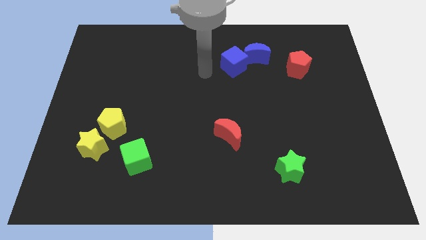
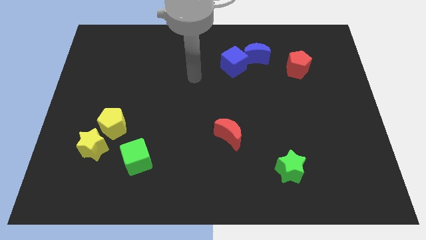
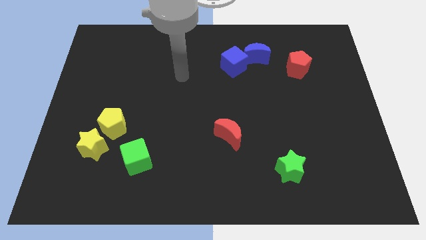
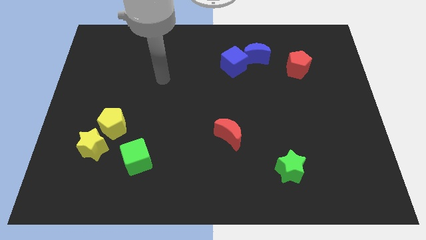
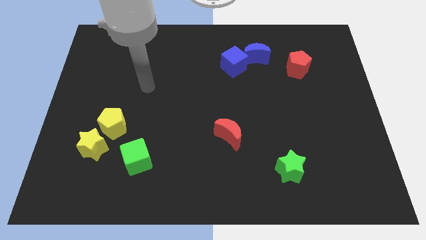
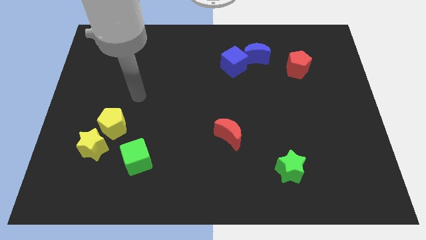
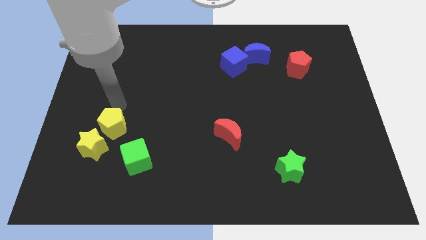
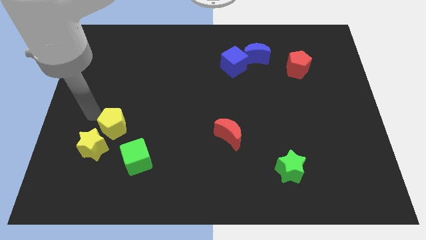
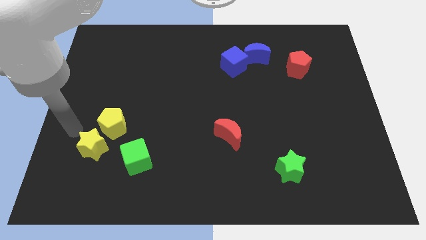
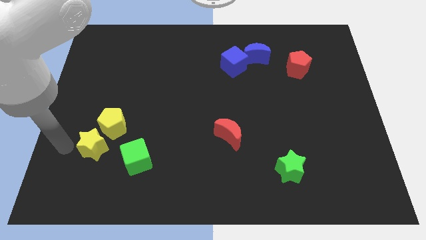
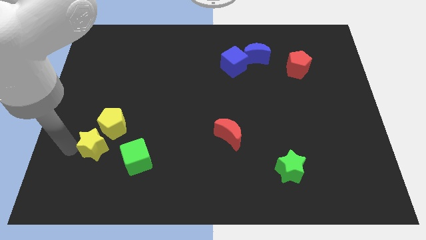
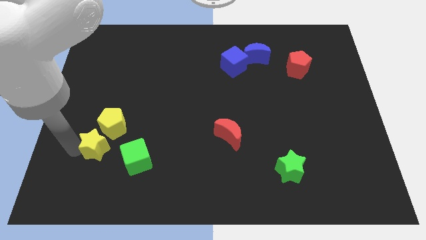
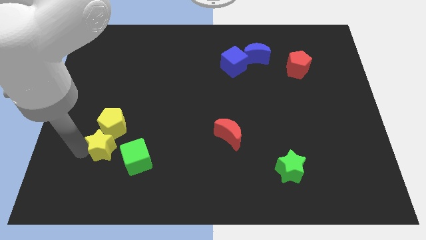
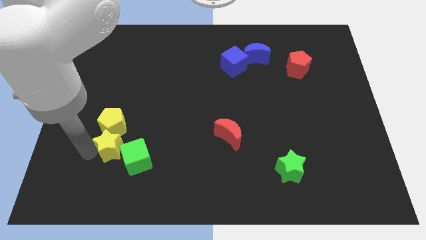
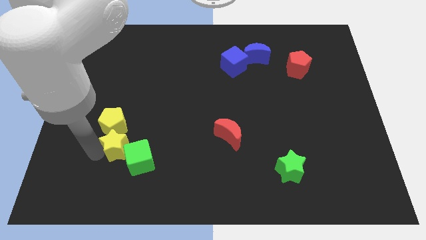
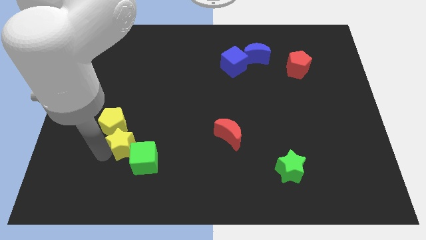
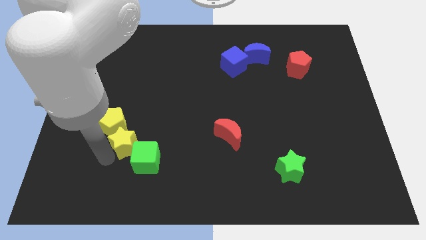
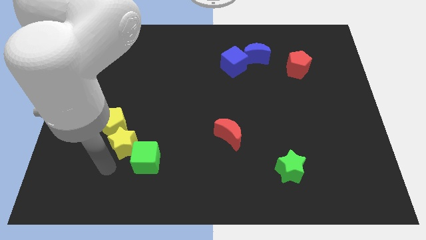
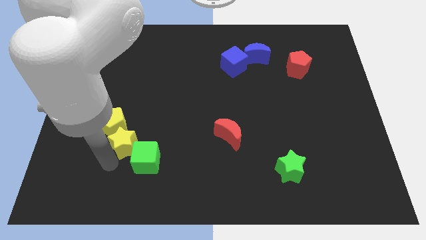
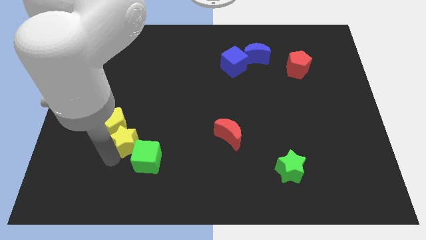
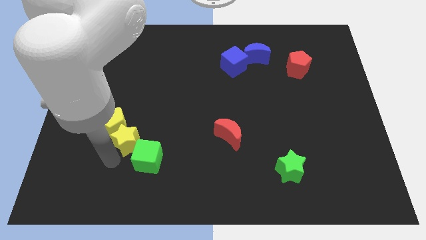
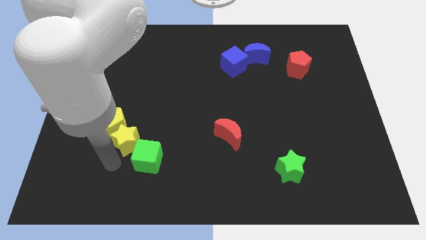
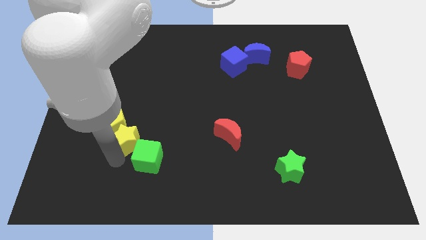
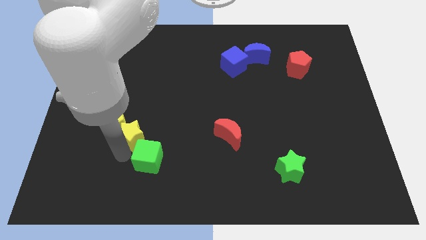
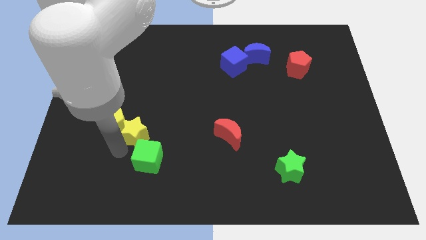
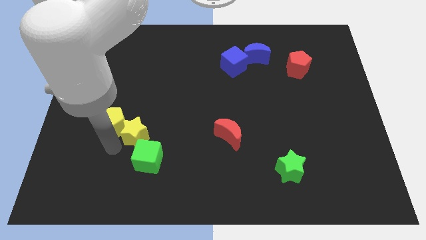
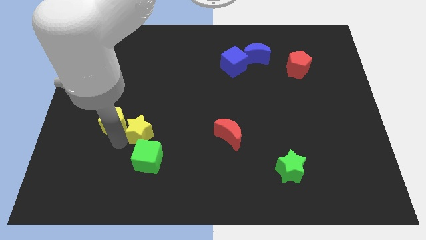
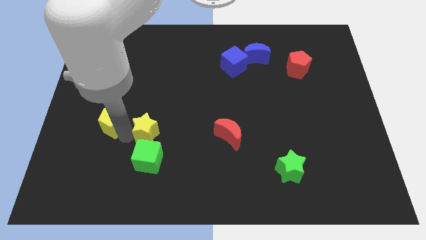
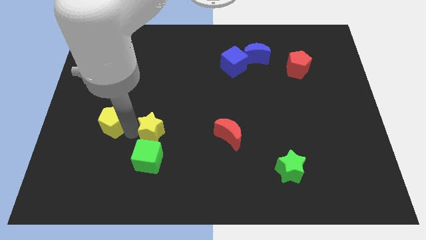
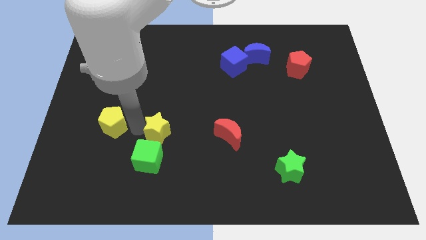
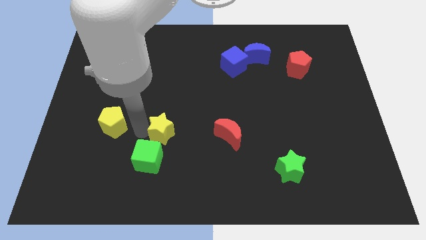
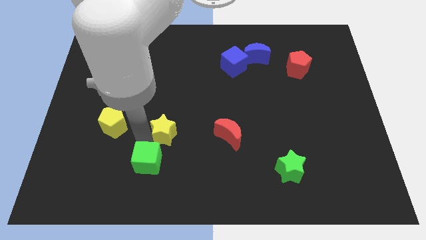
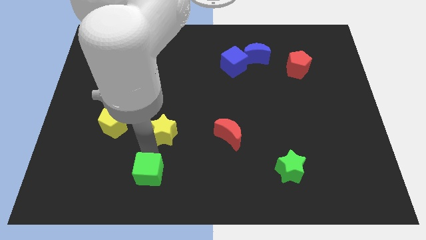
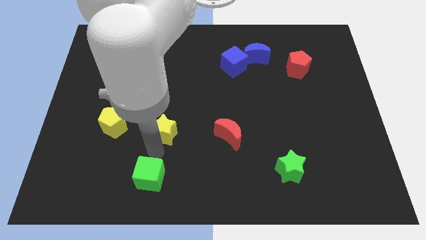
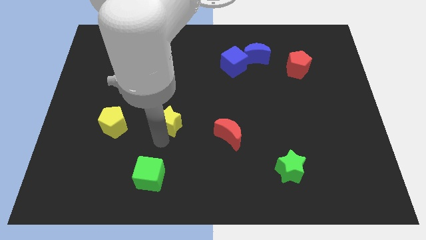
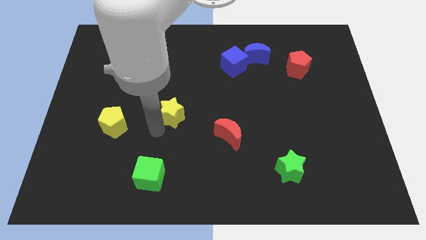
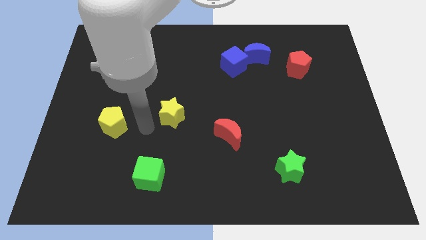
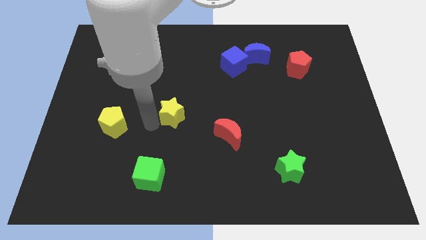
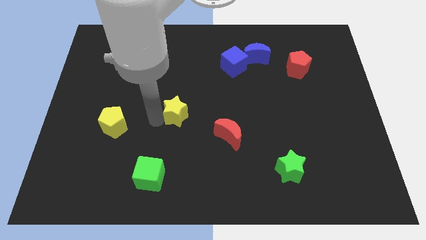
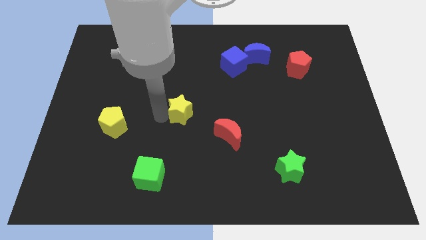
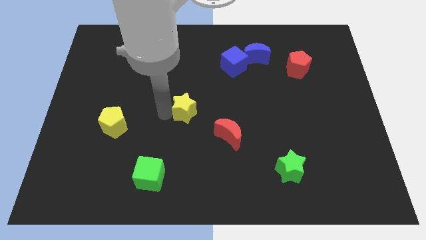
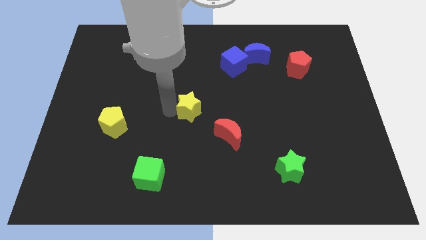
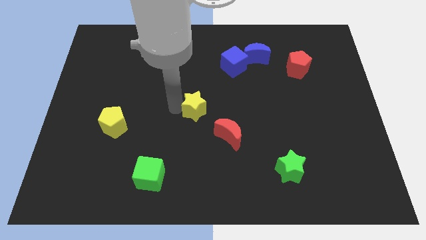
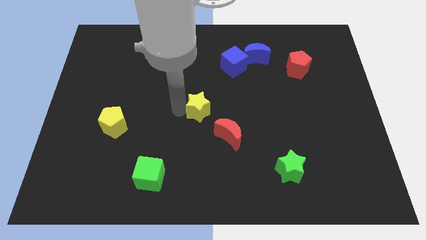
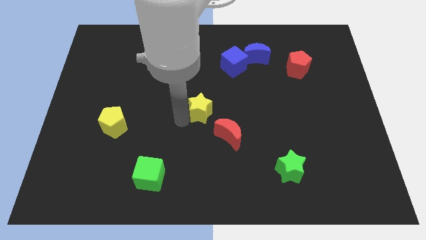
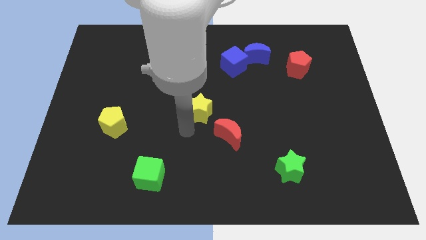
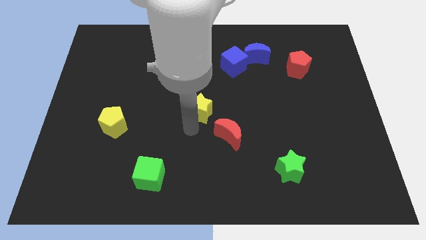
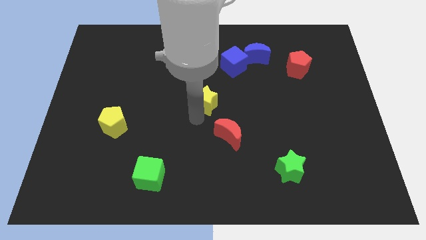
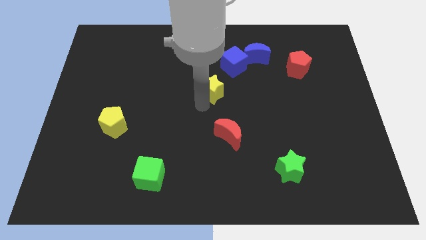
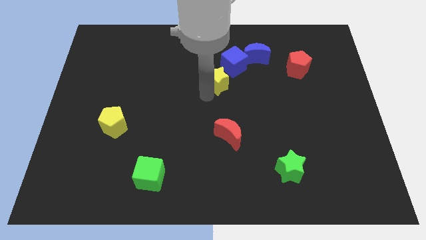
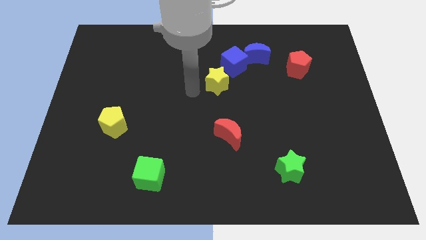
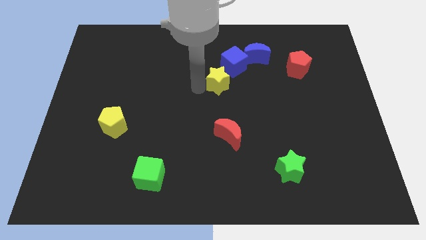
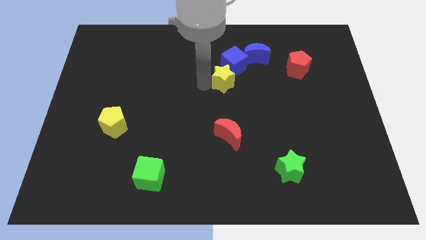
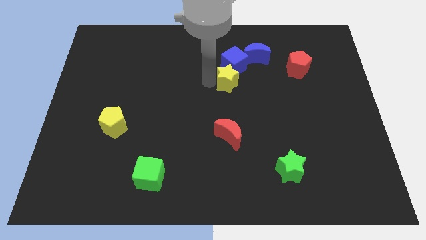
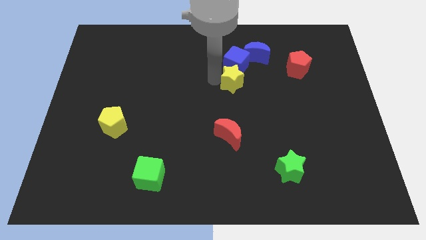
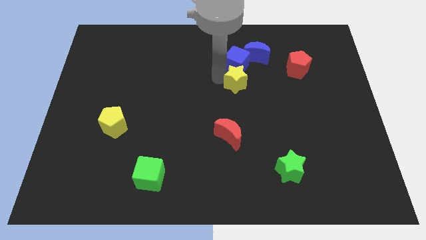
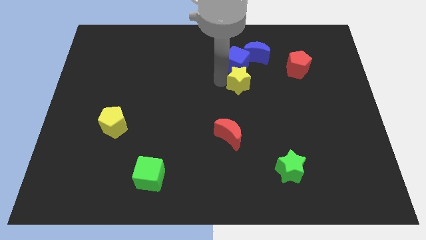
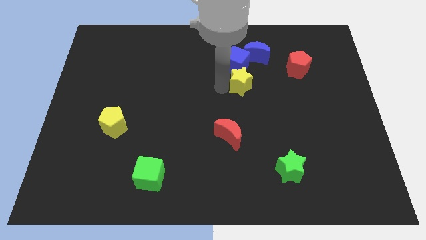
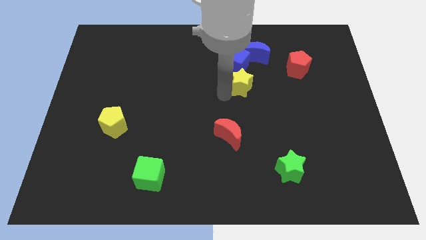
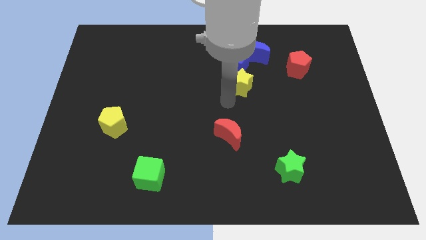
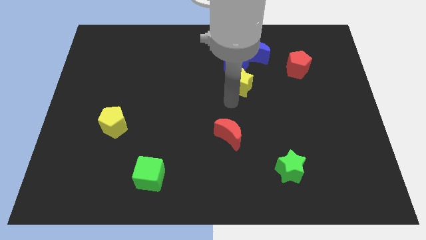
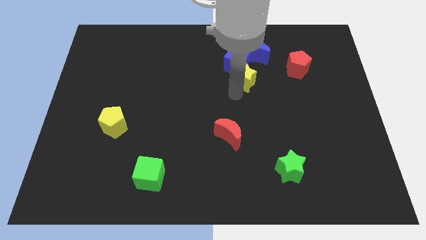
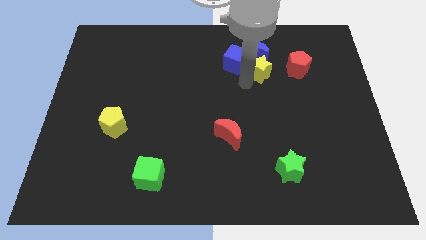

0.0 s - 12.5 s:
put the yellow star to the blue moon

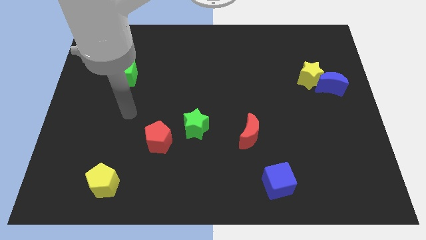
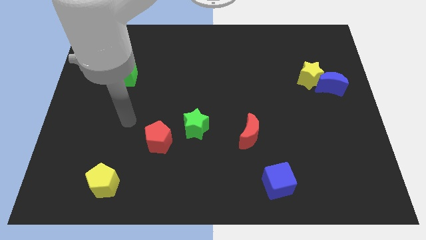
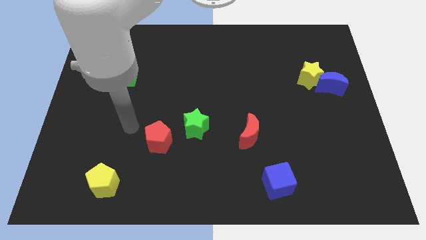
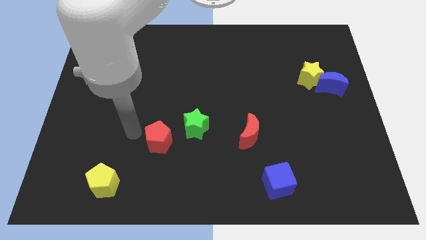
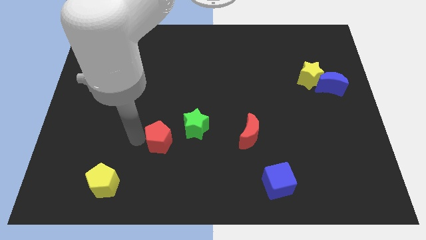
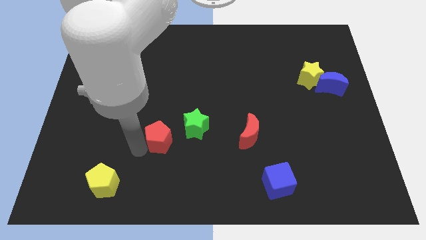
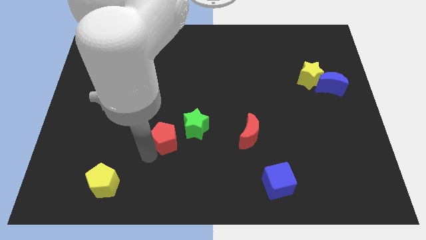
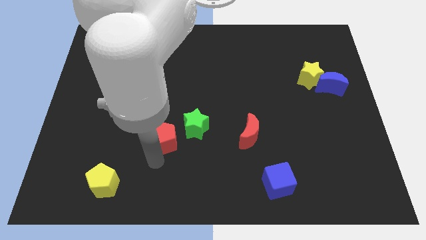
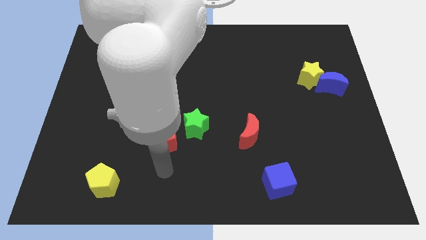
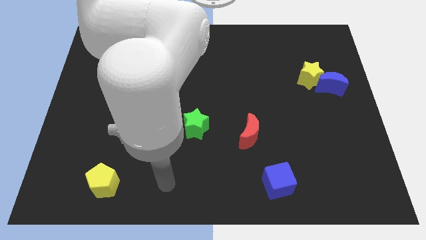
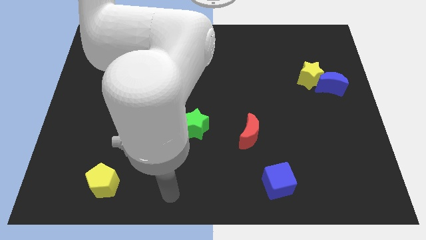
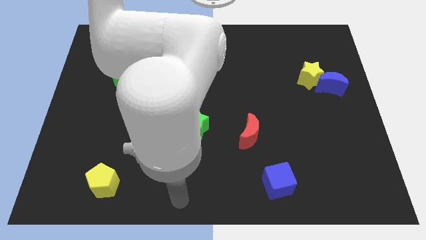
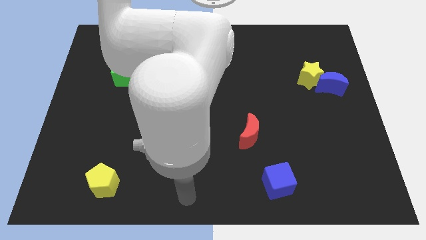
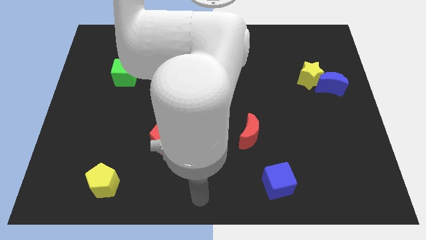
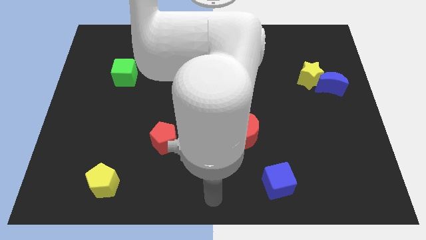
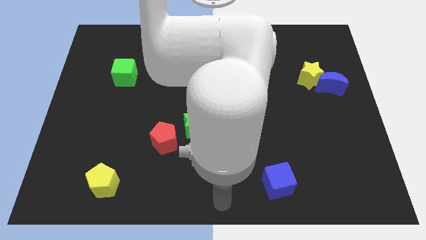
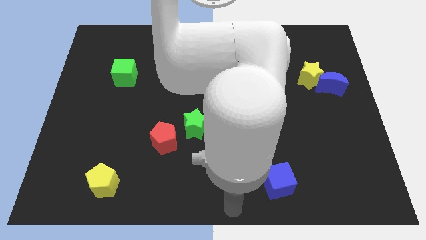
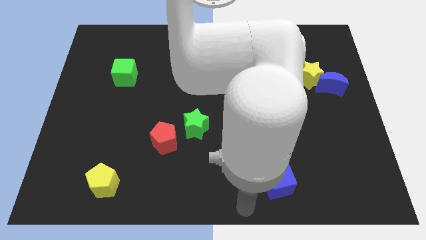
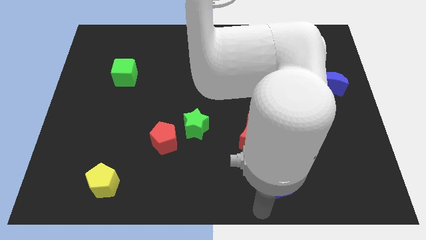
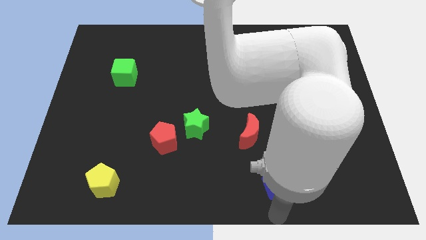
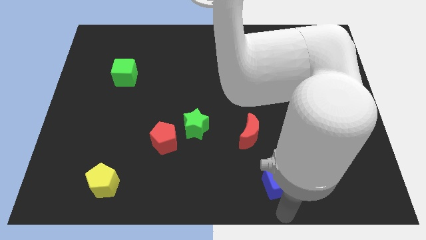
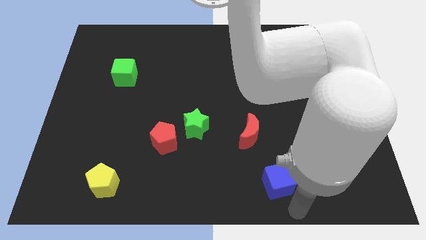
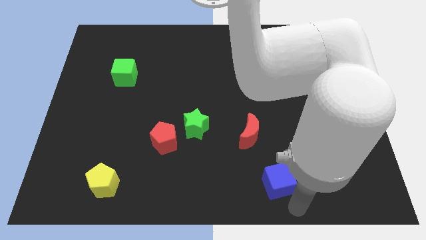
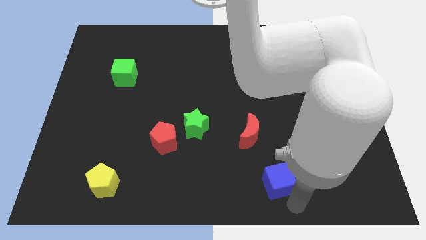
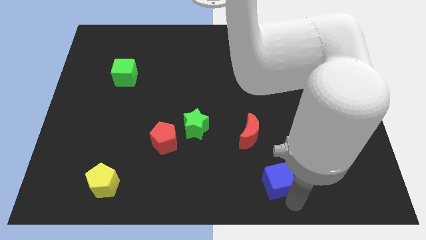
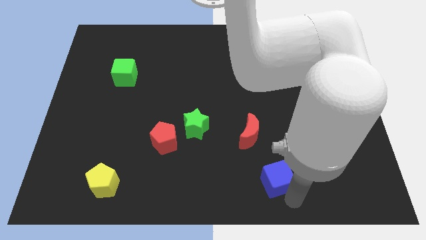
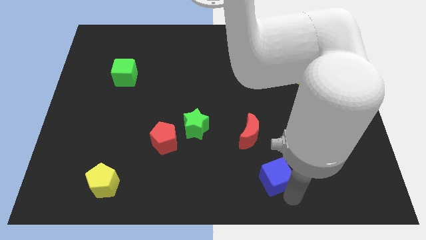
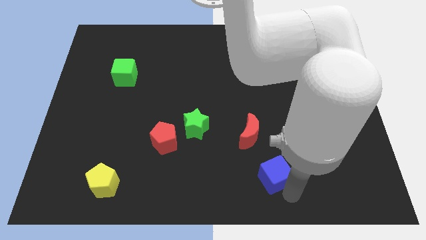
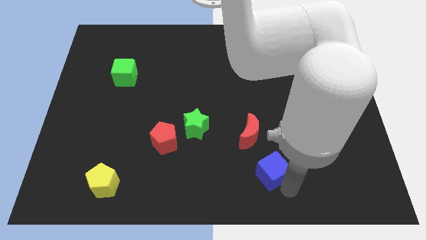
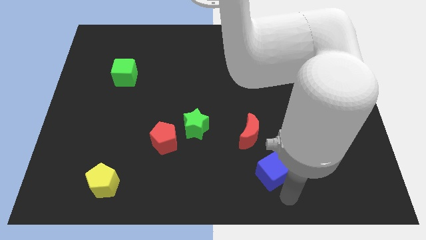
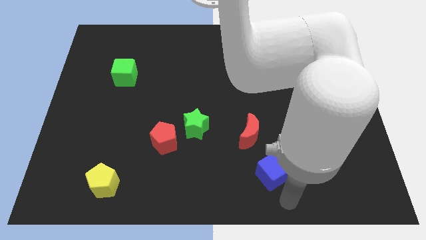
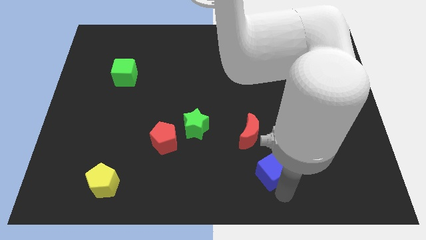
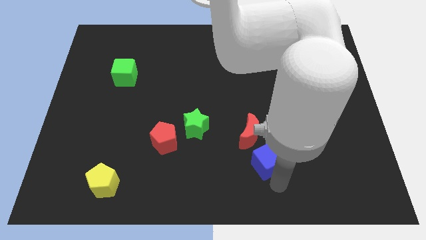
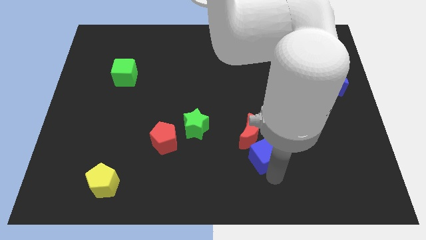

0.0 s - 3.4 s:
push the blue cube next to the red moon
